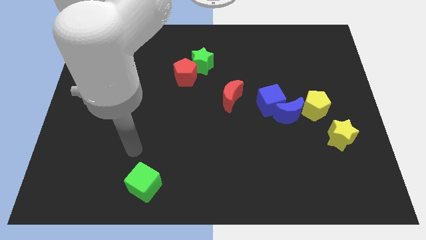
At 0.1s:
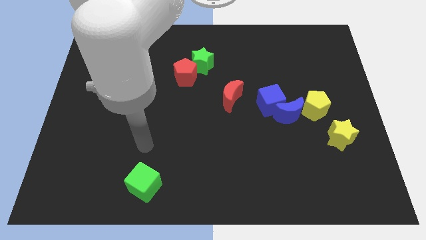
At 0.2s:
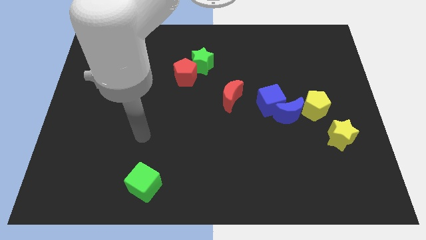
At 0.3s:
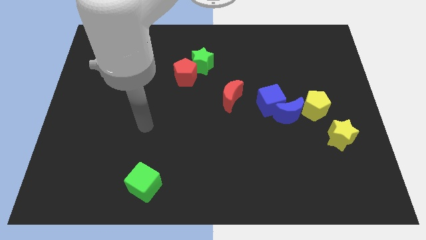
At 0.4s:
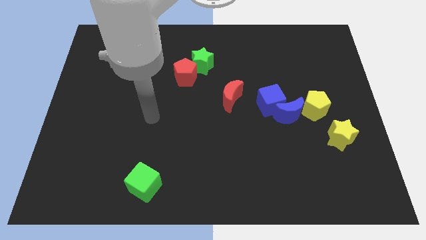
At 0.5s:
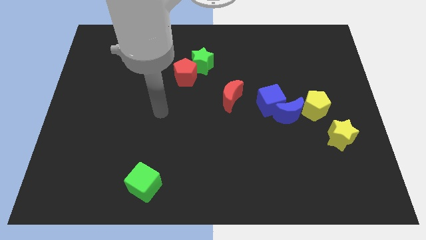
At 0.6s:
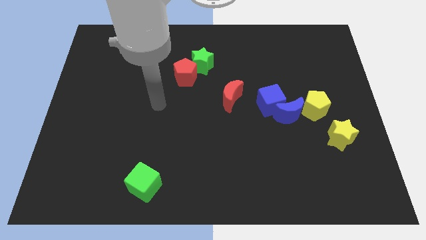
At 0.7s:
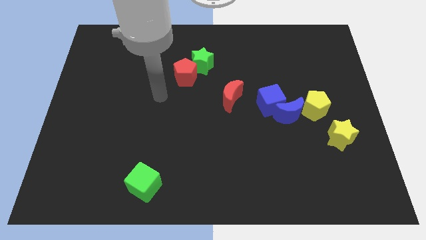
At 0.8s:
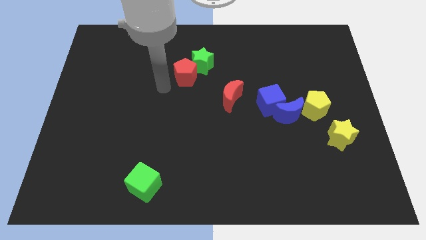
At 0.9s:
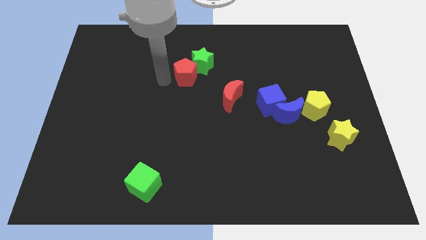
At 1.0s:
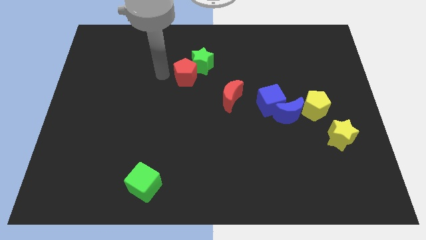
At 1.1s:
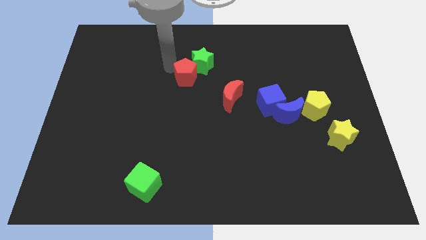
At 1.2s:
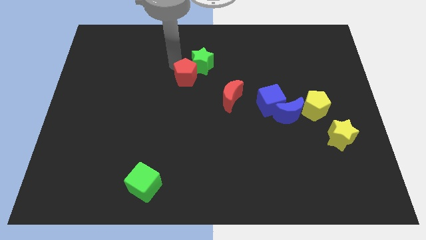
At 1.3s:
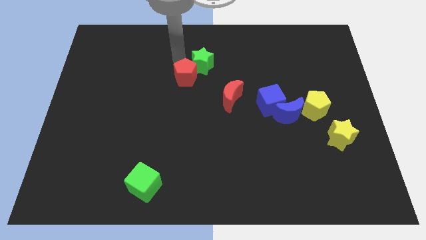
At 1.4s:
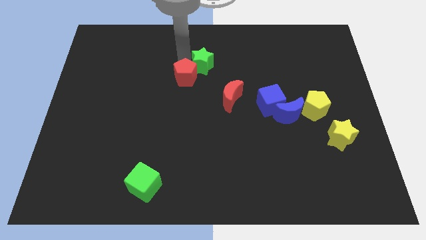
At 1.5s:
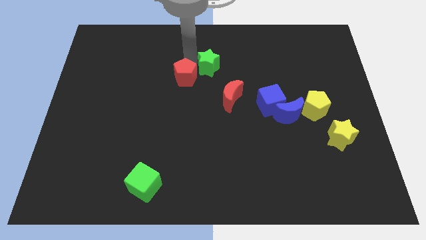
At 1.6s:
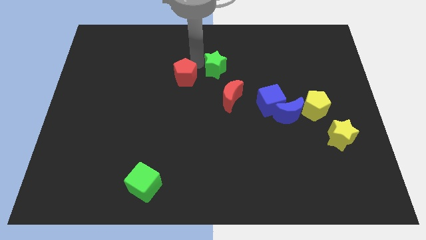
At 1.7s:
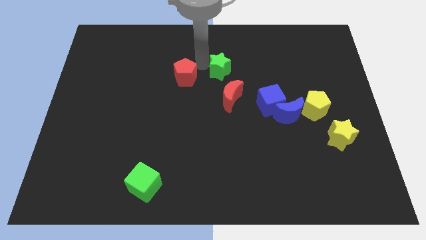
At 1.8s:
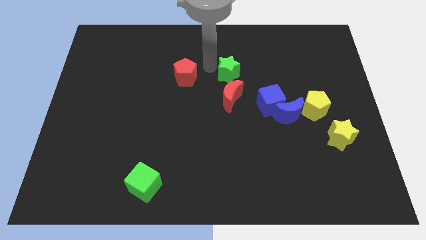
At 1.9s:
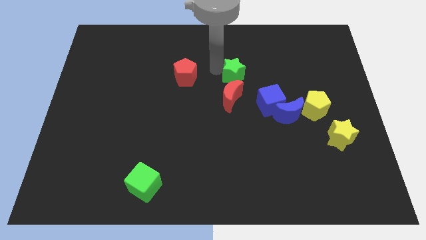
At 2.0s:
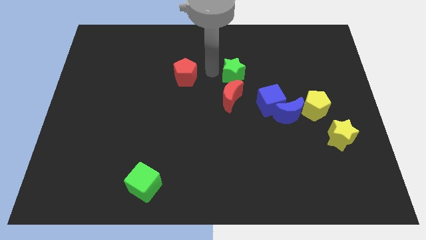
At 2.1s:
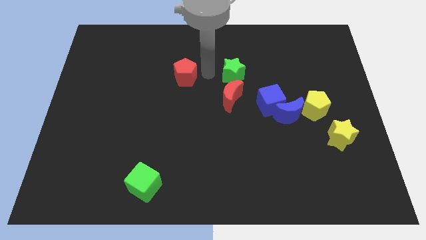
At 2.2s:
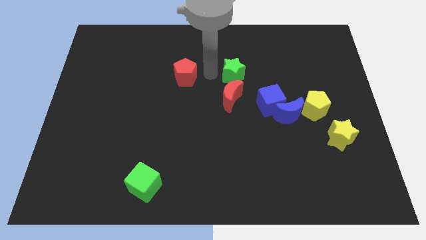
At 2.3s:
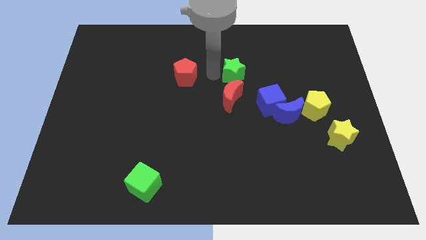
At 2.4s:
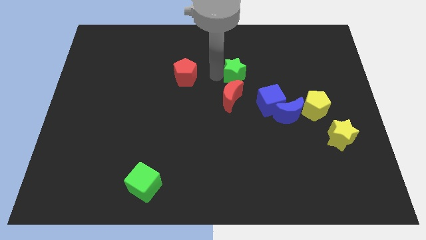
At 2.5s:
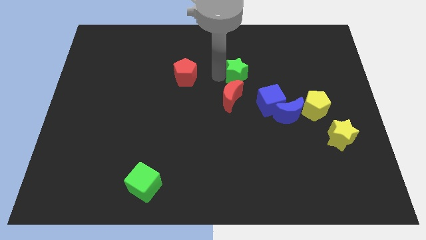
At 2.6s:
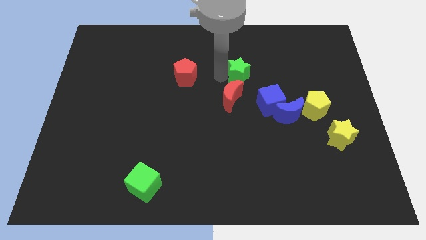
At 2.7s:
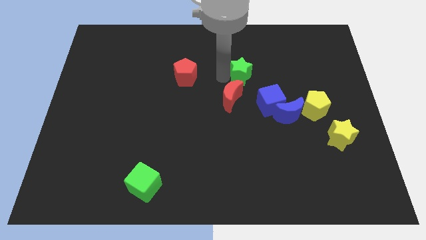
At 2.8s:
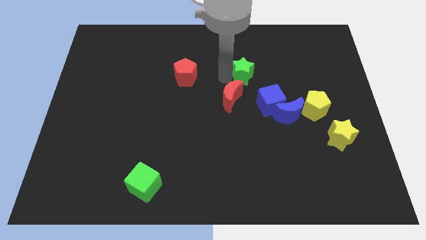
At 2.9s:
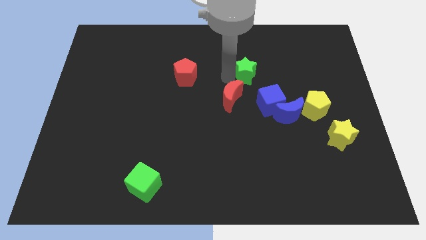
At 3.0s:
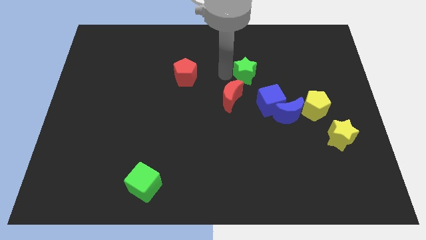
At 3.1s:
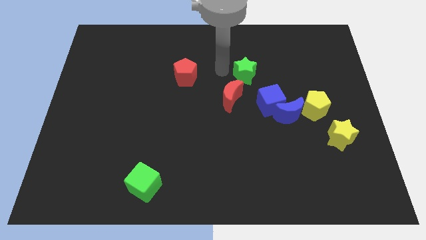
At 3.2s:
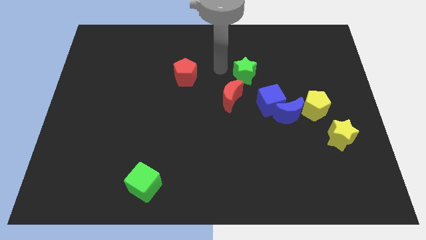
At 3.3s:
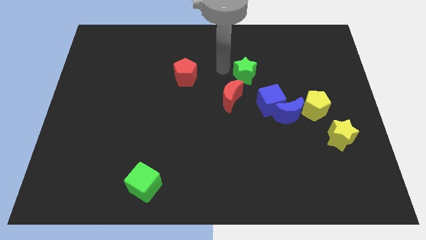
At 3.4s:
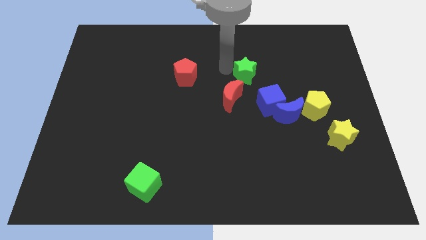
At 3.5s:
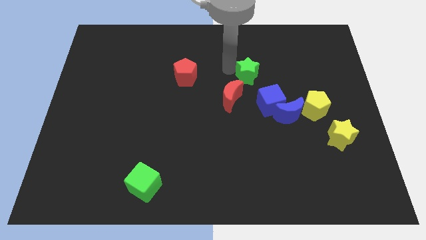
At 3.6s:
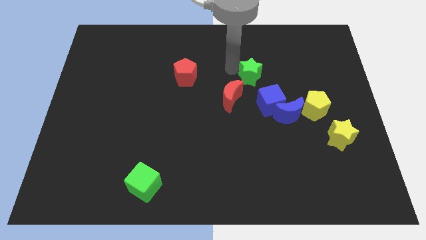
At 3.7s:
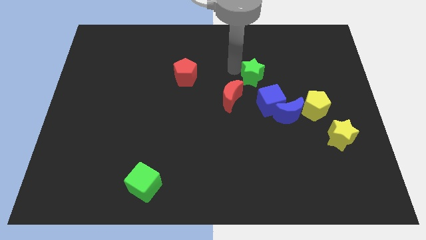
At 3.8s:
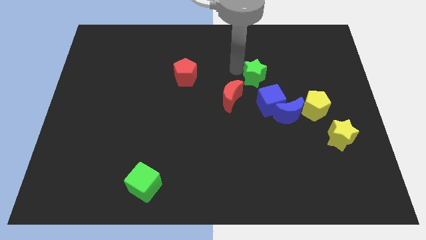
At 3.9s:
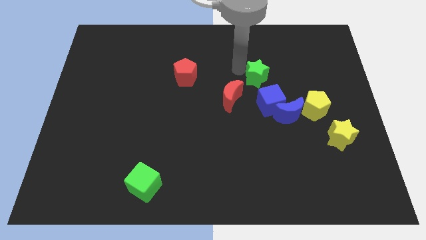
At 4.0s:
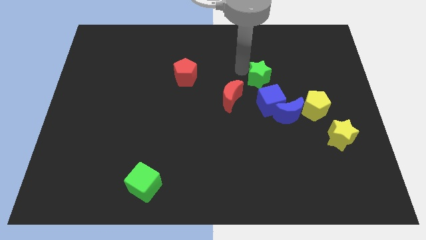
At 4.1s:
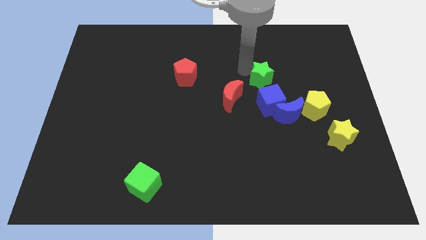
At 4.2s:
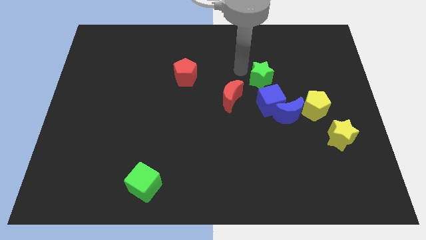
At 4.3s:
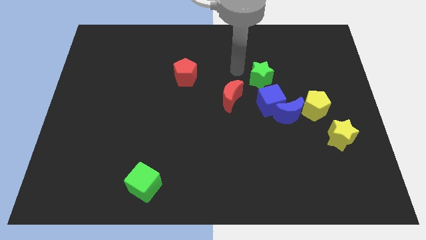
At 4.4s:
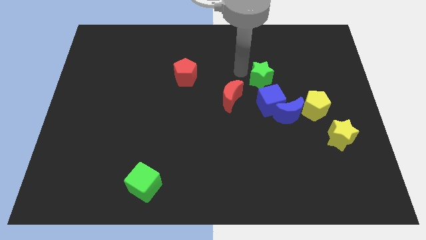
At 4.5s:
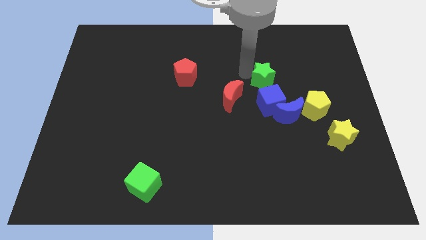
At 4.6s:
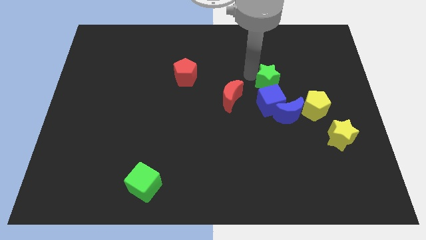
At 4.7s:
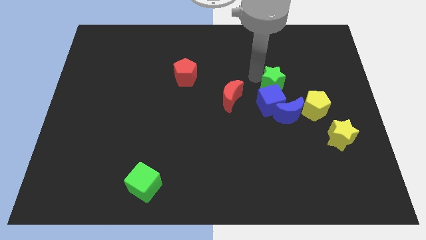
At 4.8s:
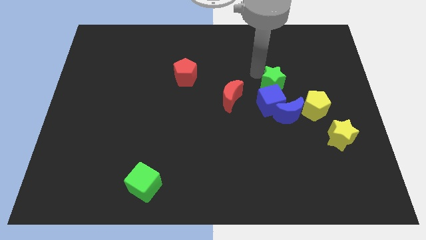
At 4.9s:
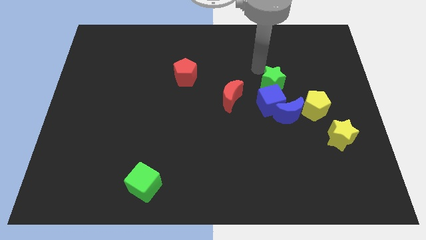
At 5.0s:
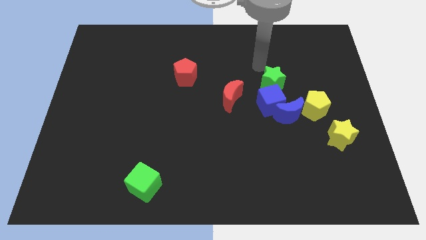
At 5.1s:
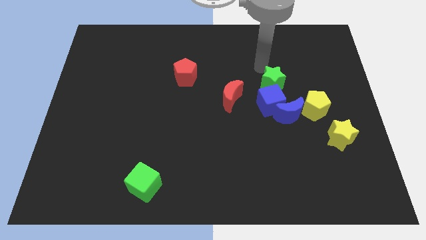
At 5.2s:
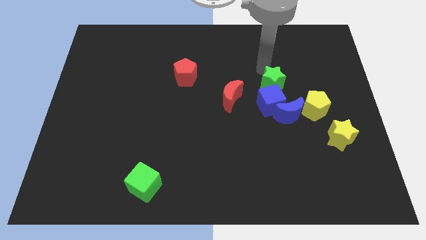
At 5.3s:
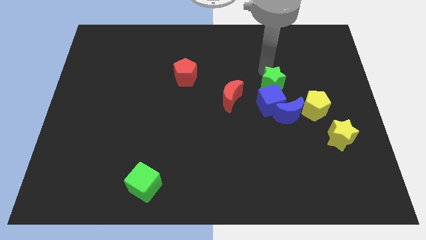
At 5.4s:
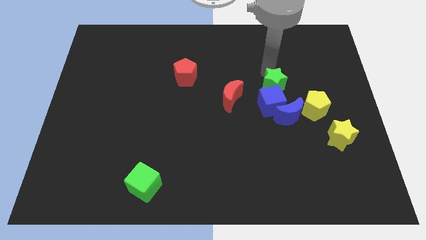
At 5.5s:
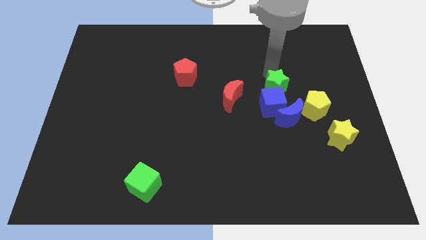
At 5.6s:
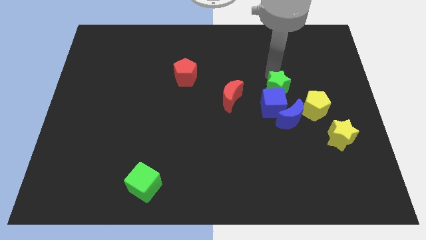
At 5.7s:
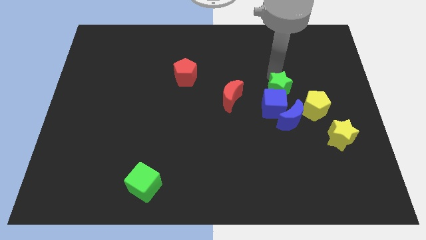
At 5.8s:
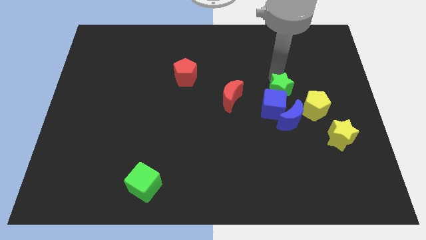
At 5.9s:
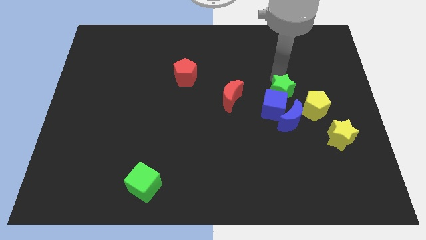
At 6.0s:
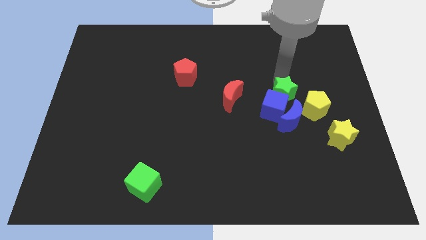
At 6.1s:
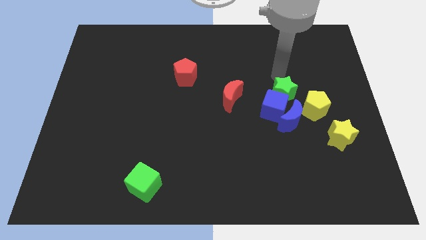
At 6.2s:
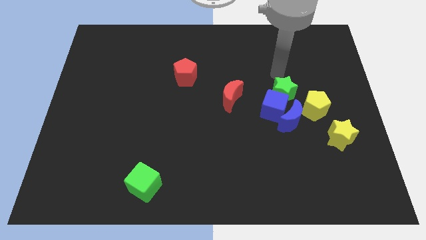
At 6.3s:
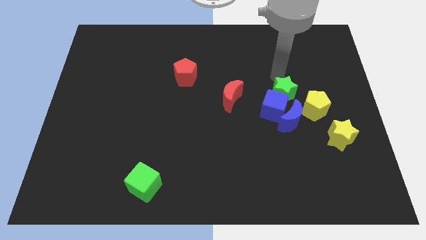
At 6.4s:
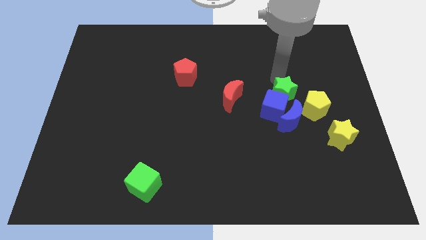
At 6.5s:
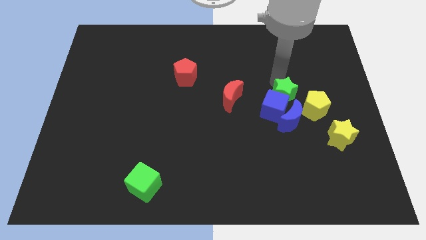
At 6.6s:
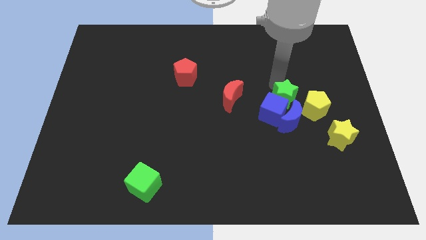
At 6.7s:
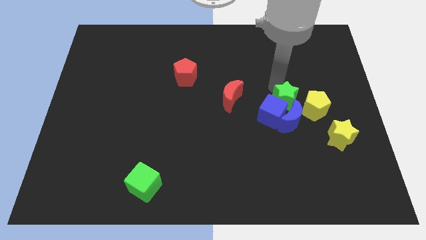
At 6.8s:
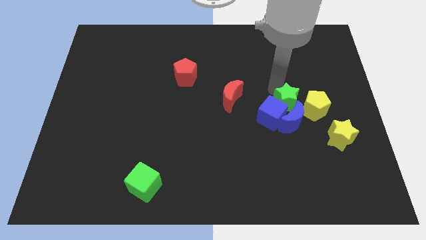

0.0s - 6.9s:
slide the green star to the blue moon
